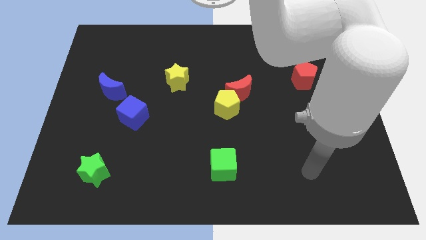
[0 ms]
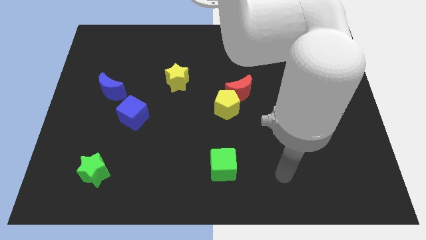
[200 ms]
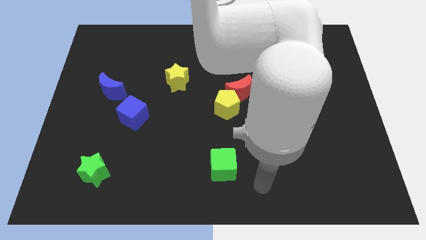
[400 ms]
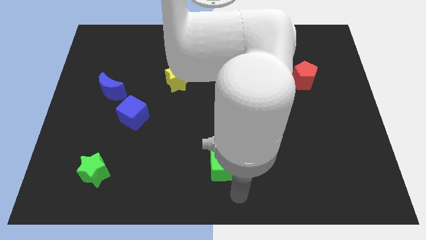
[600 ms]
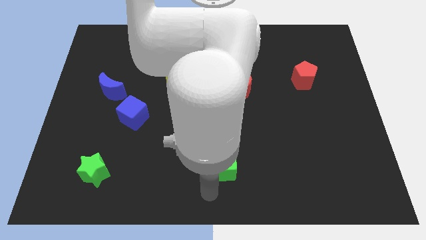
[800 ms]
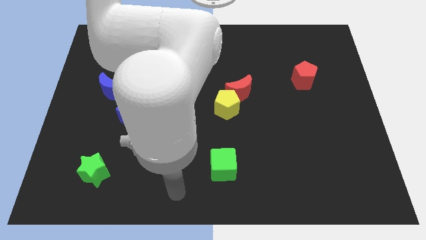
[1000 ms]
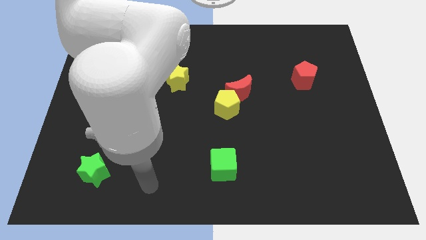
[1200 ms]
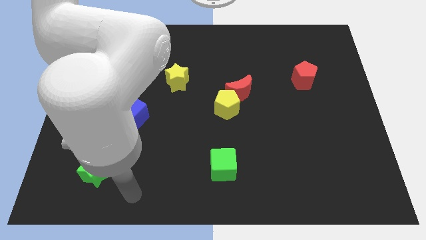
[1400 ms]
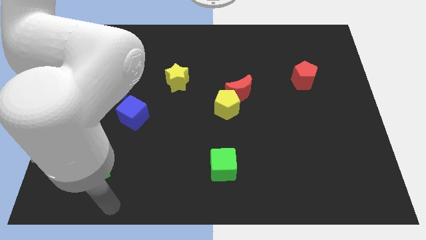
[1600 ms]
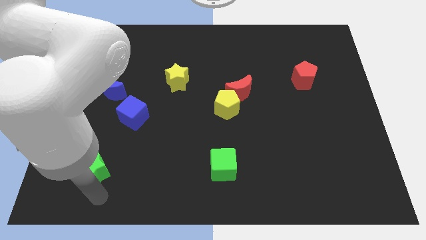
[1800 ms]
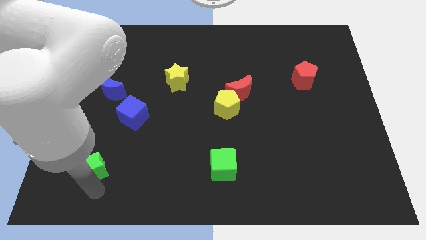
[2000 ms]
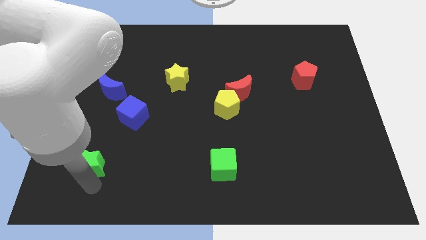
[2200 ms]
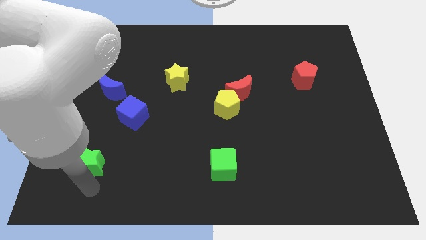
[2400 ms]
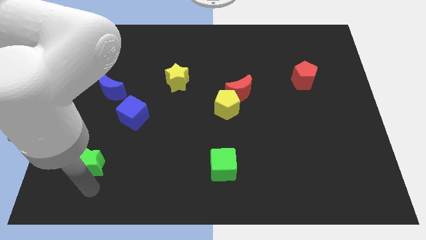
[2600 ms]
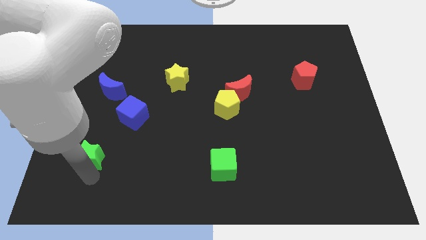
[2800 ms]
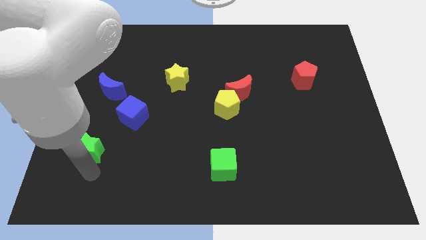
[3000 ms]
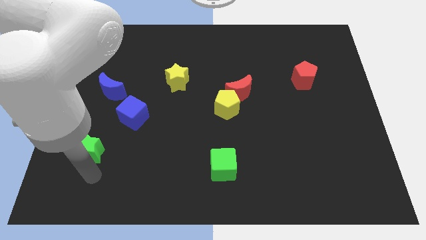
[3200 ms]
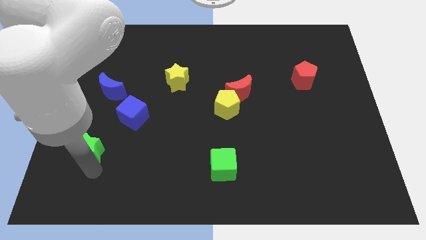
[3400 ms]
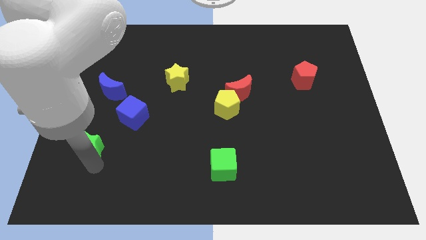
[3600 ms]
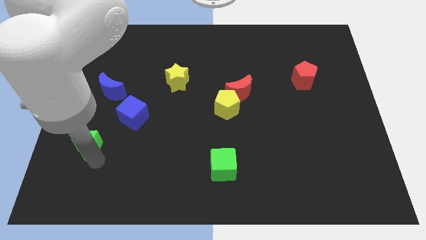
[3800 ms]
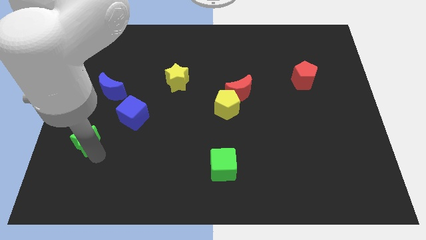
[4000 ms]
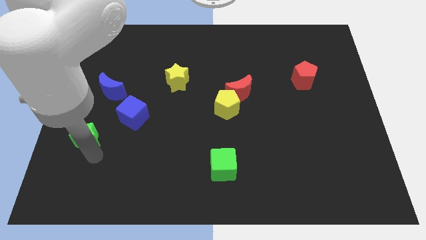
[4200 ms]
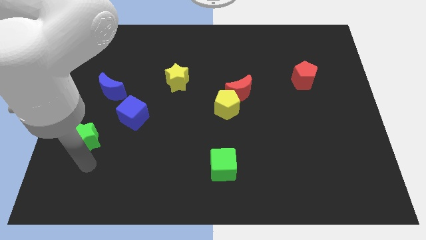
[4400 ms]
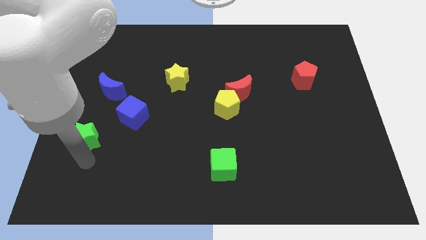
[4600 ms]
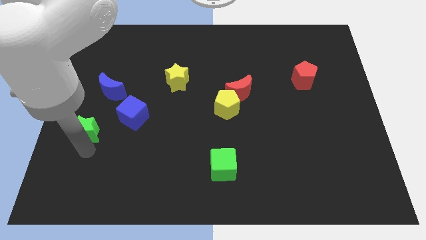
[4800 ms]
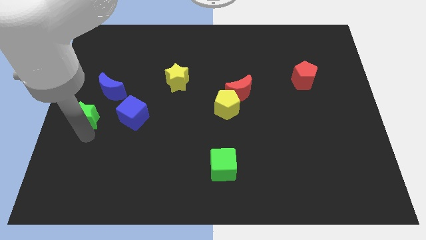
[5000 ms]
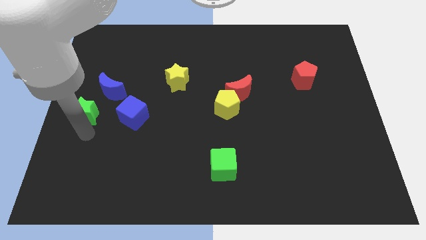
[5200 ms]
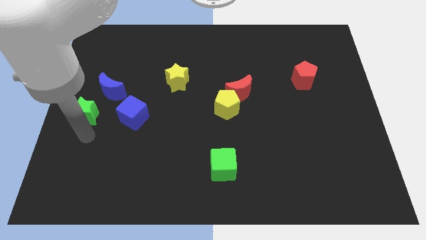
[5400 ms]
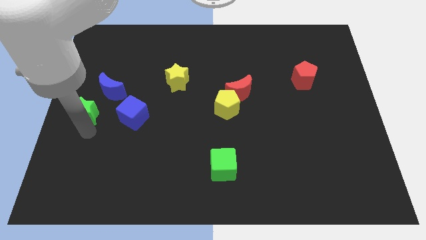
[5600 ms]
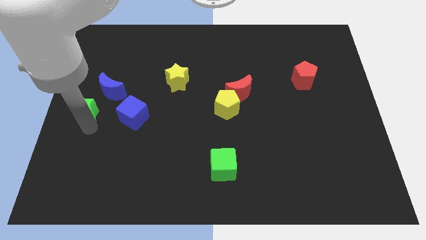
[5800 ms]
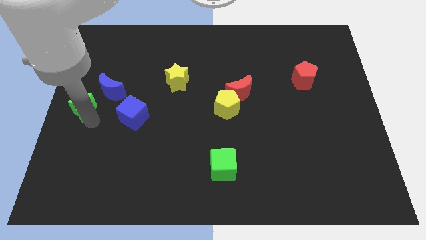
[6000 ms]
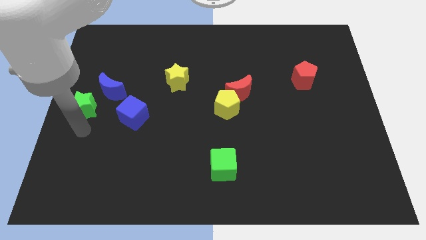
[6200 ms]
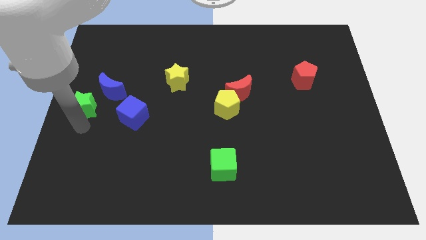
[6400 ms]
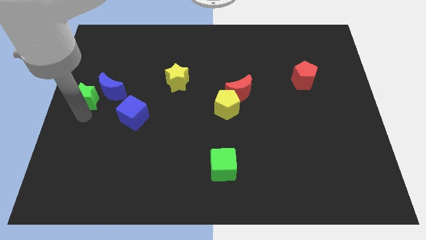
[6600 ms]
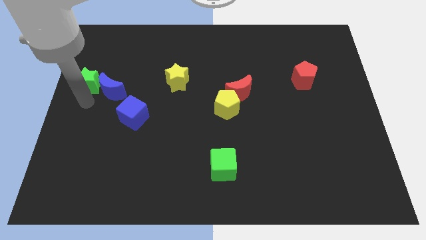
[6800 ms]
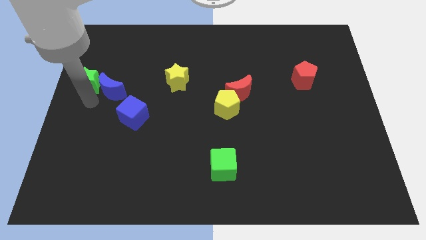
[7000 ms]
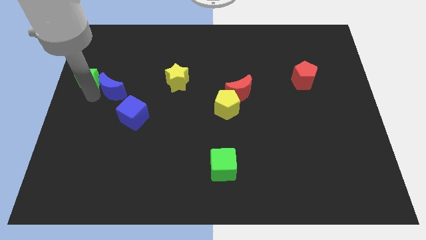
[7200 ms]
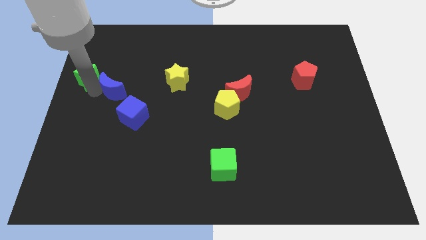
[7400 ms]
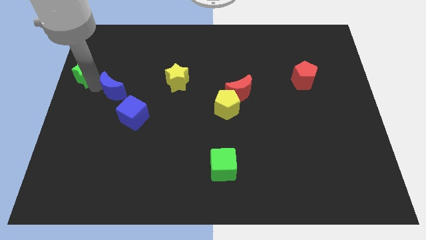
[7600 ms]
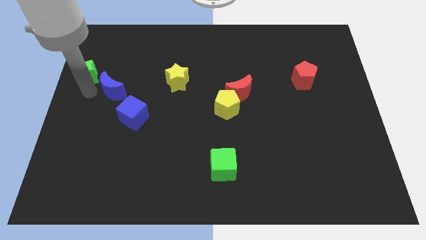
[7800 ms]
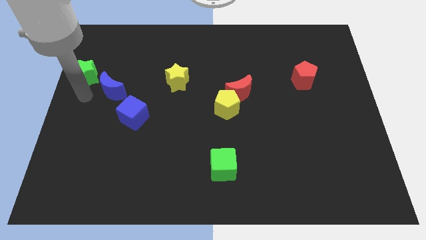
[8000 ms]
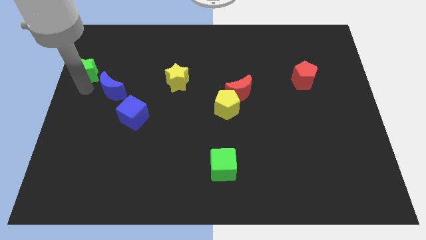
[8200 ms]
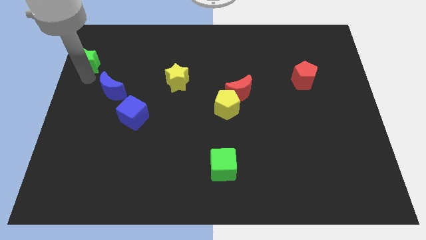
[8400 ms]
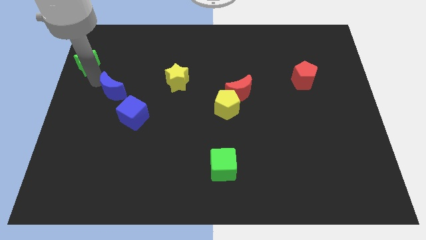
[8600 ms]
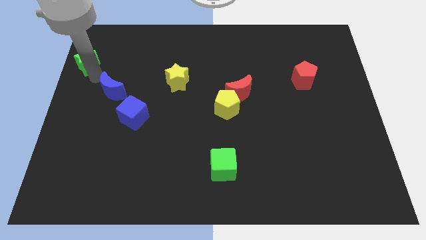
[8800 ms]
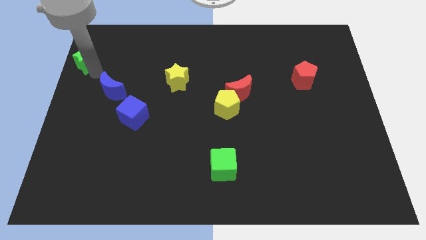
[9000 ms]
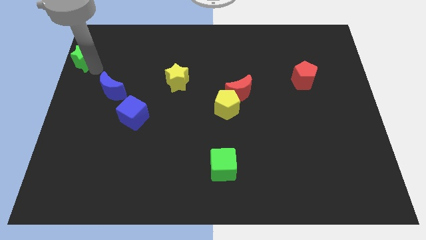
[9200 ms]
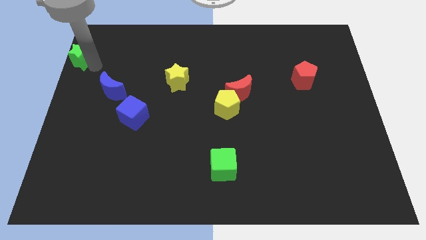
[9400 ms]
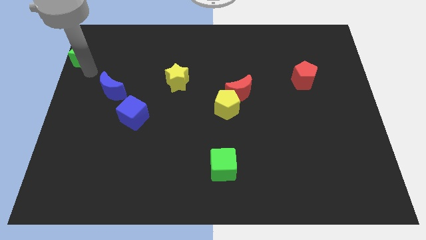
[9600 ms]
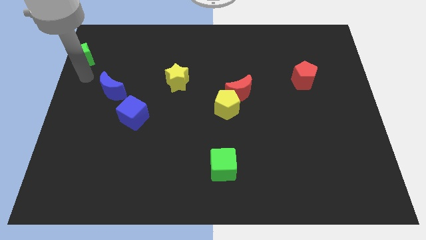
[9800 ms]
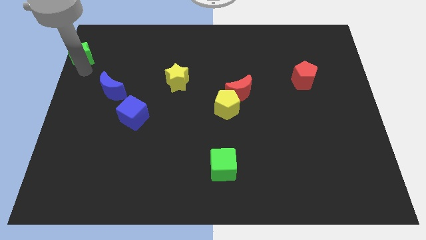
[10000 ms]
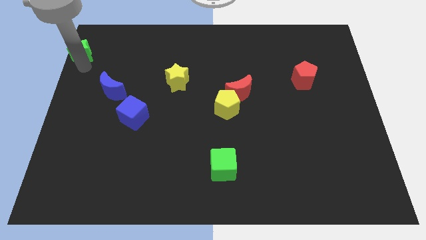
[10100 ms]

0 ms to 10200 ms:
push the green star to the upper left corner

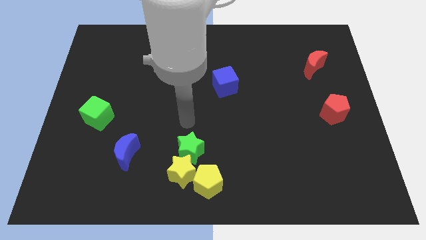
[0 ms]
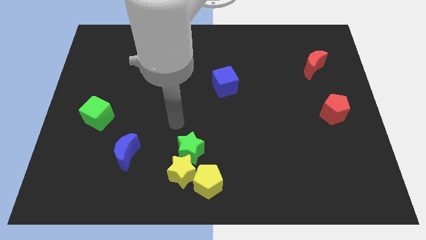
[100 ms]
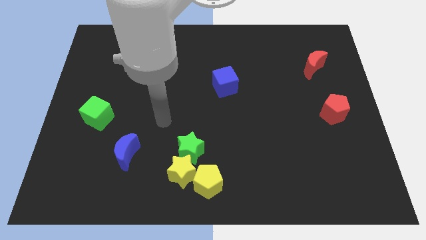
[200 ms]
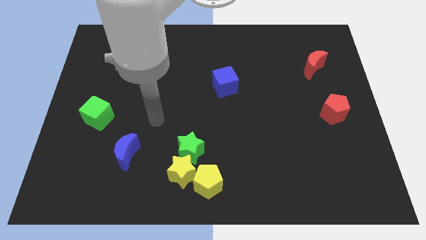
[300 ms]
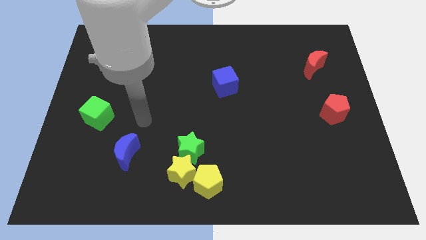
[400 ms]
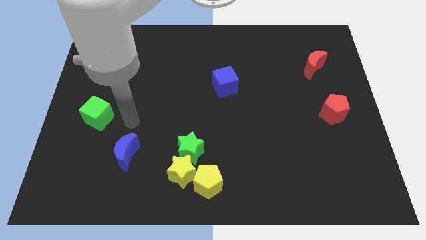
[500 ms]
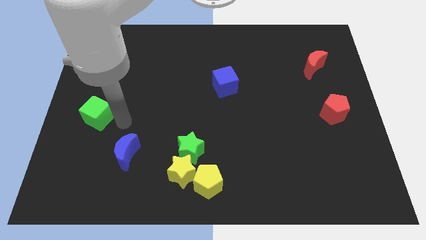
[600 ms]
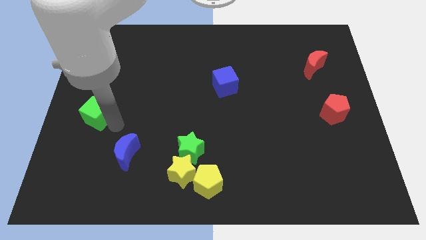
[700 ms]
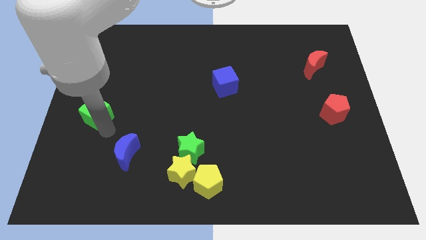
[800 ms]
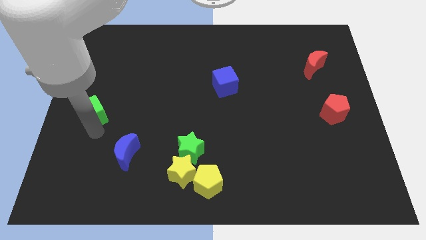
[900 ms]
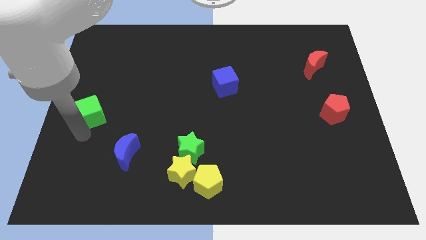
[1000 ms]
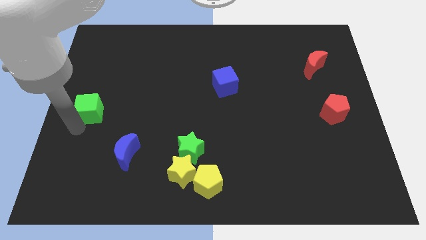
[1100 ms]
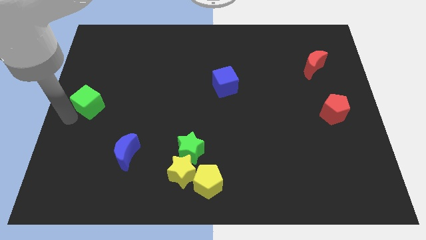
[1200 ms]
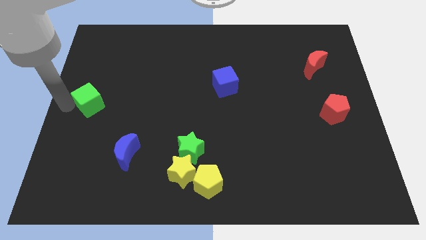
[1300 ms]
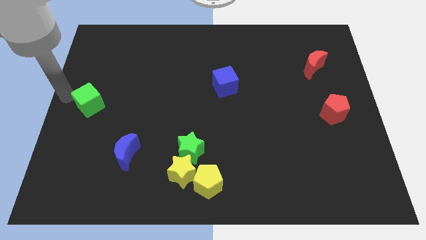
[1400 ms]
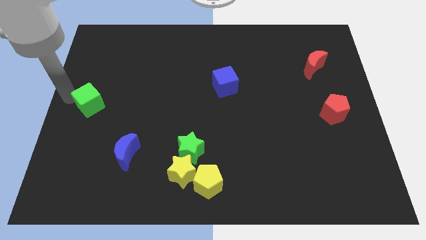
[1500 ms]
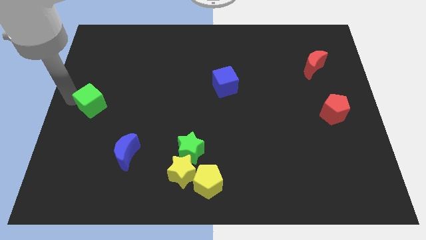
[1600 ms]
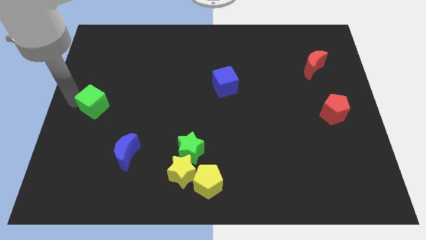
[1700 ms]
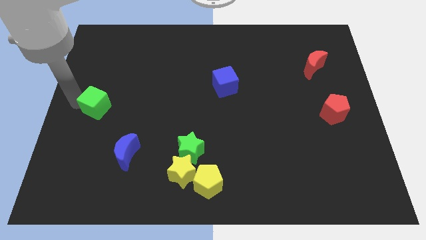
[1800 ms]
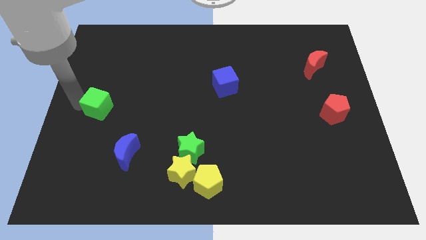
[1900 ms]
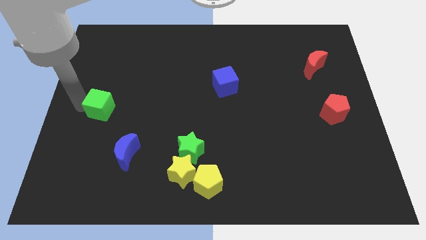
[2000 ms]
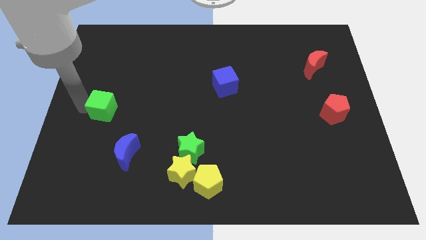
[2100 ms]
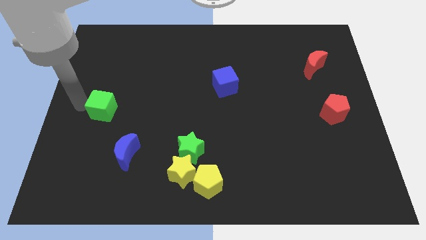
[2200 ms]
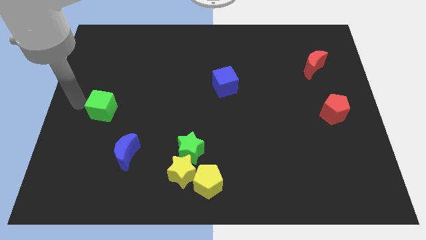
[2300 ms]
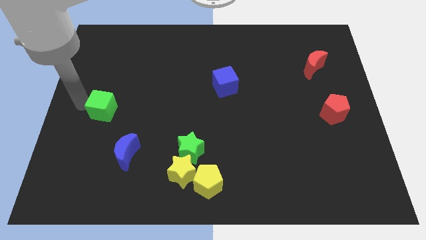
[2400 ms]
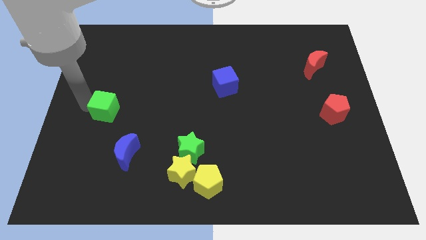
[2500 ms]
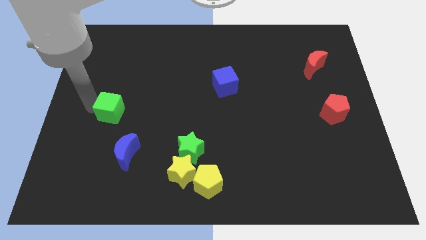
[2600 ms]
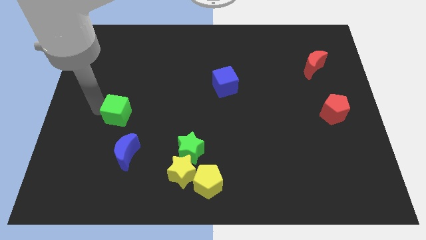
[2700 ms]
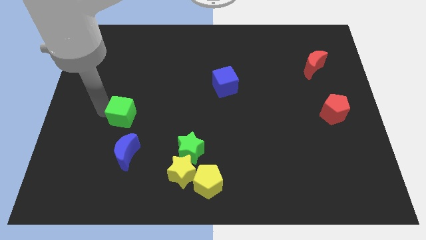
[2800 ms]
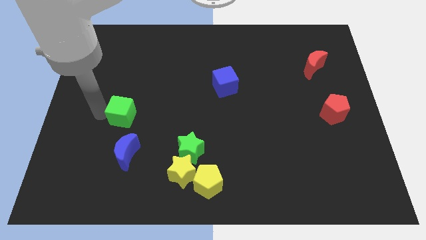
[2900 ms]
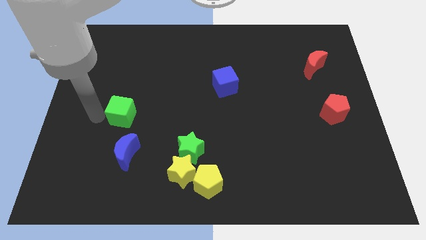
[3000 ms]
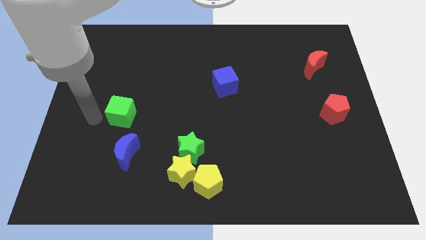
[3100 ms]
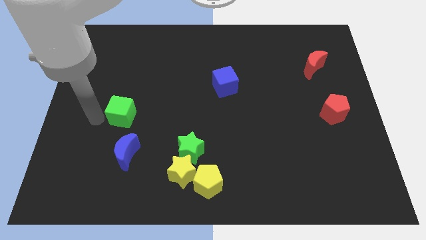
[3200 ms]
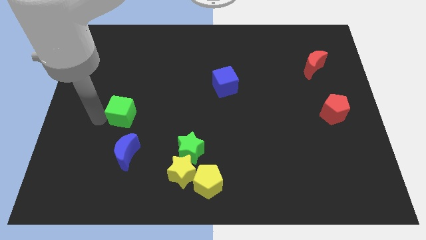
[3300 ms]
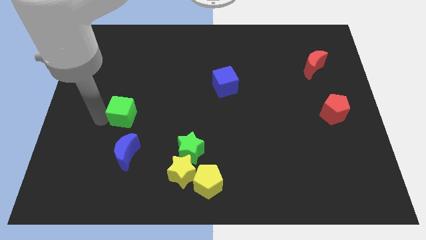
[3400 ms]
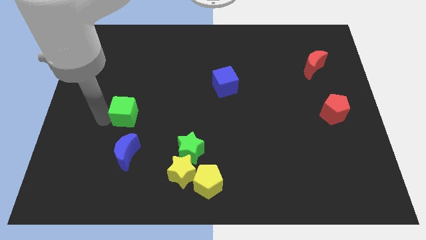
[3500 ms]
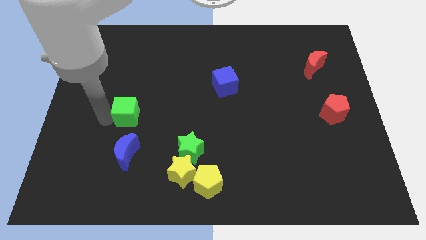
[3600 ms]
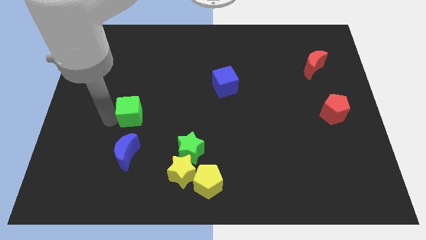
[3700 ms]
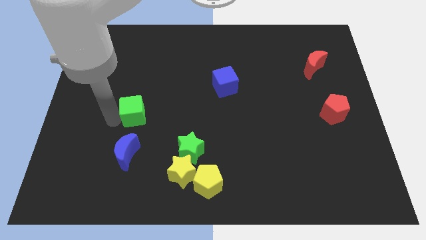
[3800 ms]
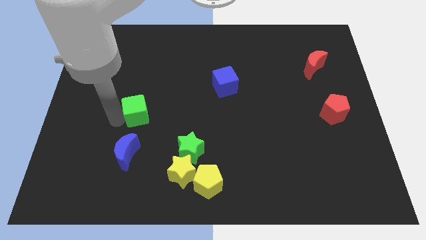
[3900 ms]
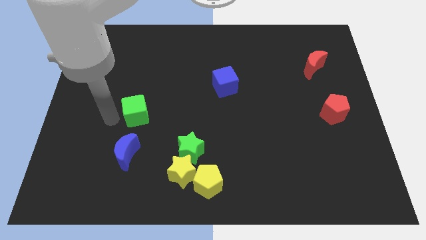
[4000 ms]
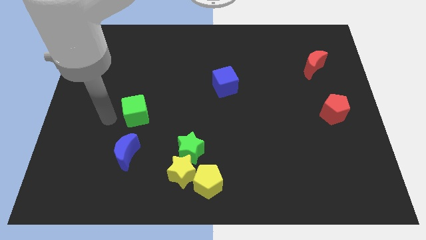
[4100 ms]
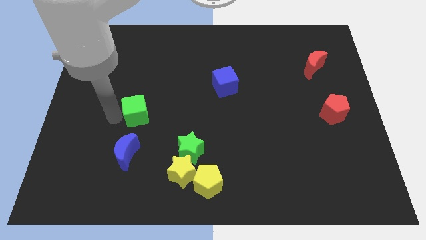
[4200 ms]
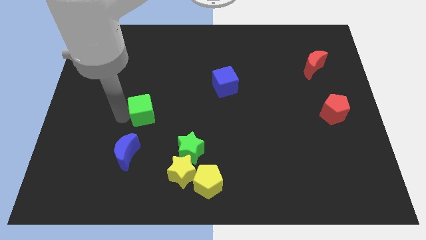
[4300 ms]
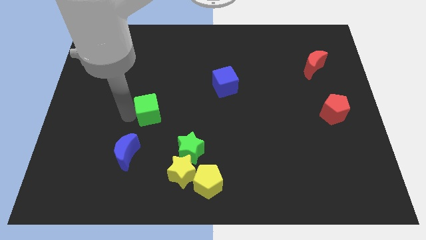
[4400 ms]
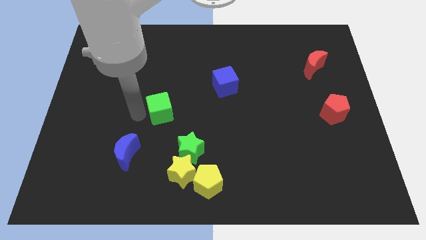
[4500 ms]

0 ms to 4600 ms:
slide the green cube to the middle of the board
